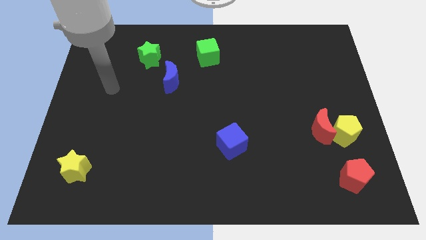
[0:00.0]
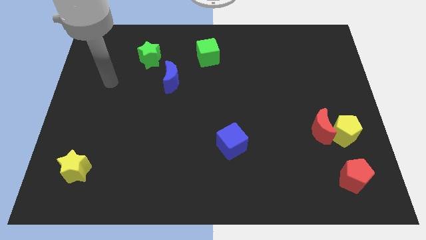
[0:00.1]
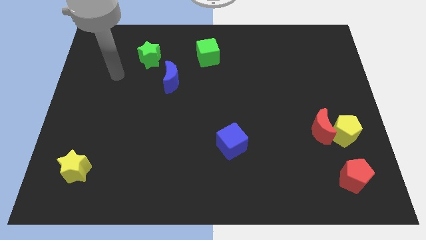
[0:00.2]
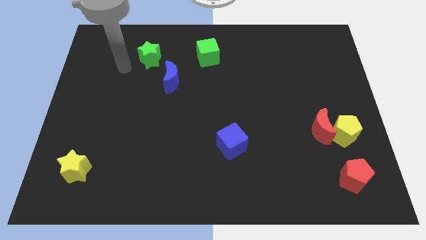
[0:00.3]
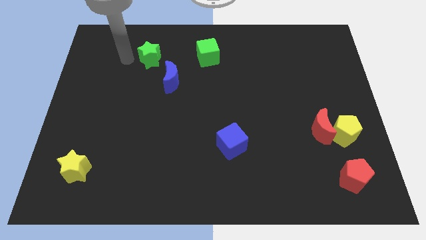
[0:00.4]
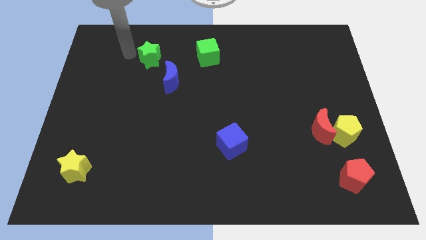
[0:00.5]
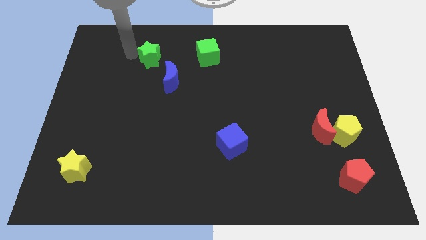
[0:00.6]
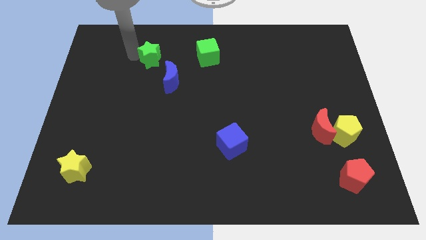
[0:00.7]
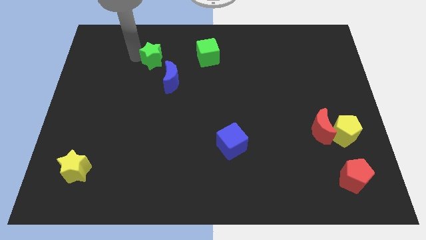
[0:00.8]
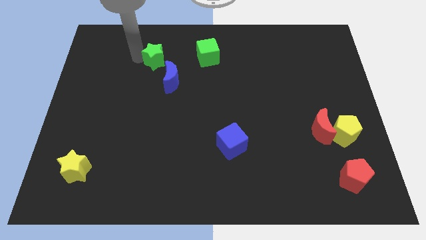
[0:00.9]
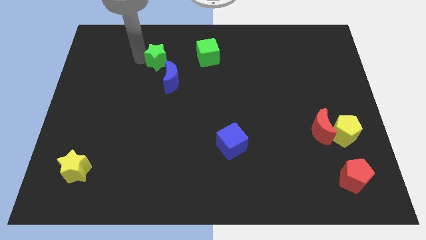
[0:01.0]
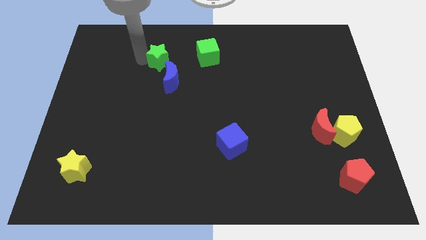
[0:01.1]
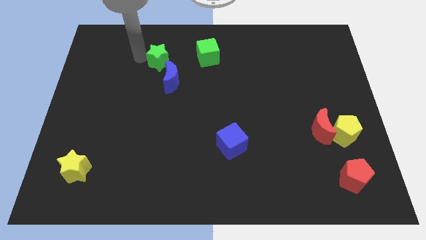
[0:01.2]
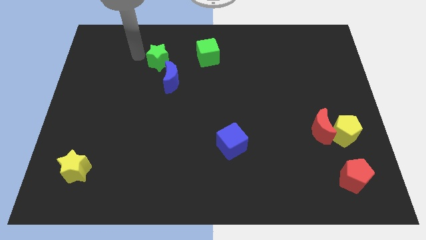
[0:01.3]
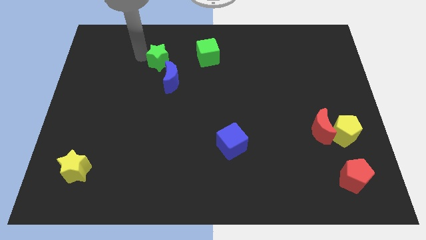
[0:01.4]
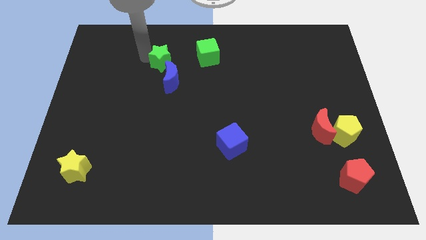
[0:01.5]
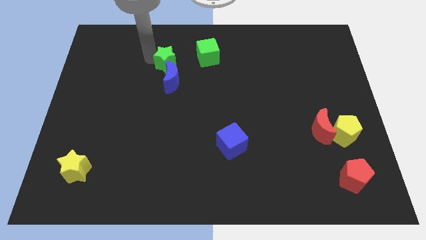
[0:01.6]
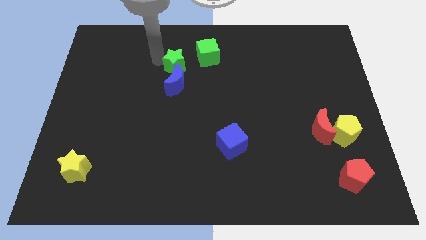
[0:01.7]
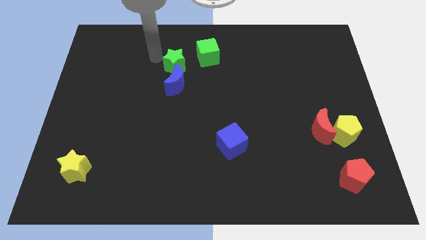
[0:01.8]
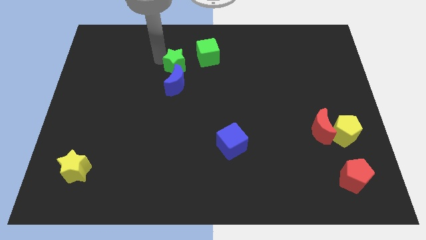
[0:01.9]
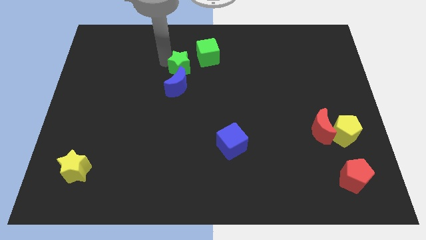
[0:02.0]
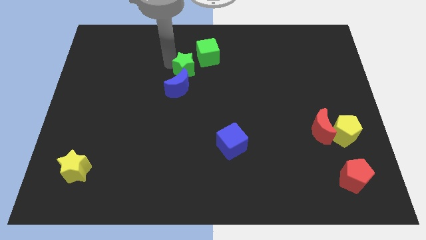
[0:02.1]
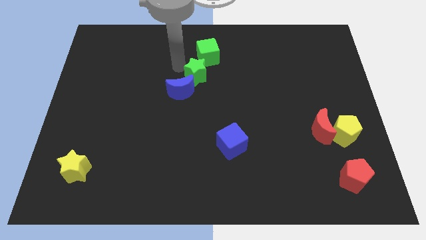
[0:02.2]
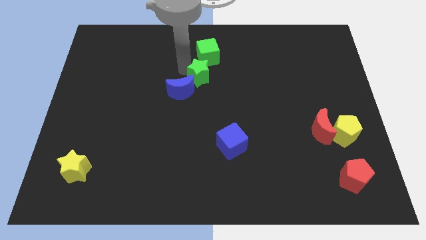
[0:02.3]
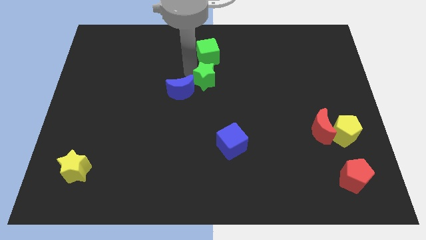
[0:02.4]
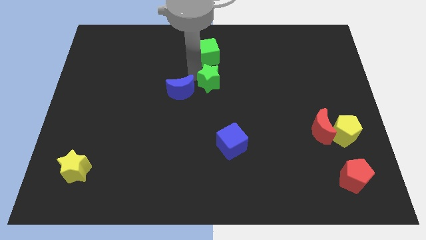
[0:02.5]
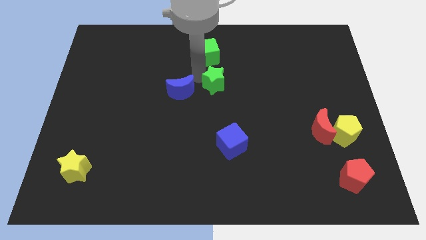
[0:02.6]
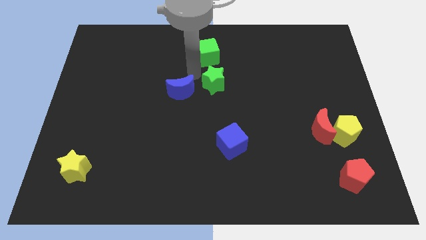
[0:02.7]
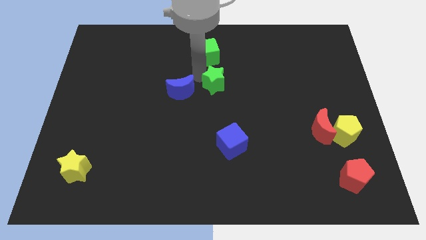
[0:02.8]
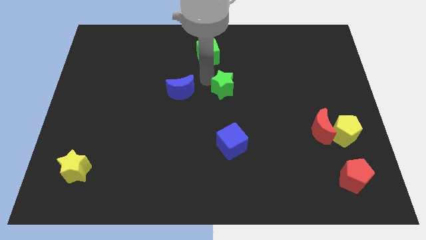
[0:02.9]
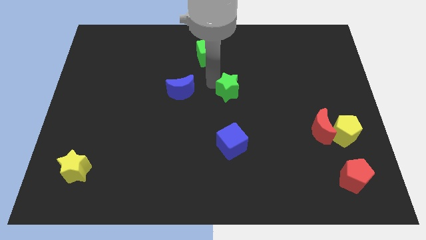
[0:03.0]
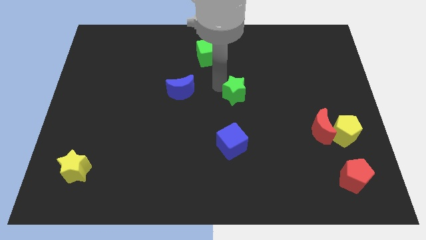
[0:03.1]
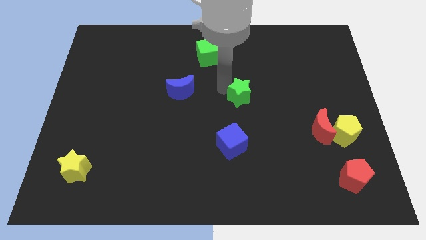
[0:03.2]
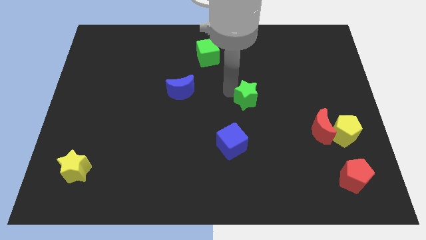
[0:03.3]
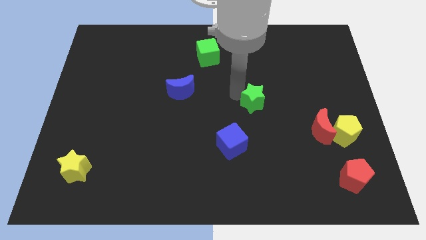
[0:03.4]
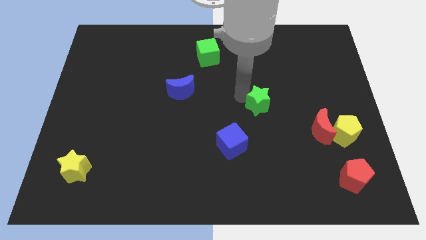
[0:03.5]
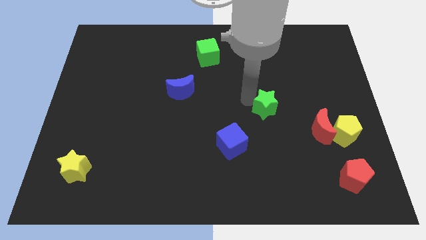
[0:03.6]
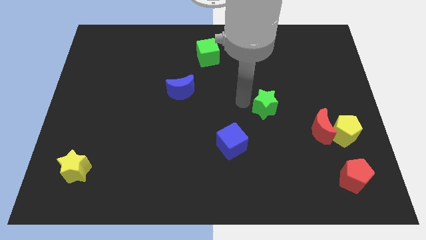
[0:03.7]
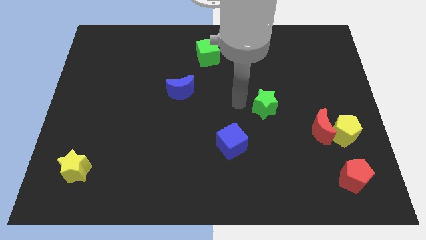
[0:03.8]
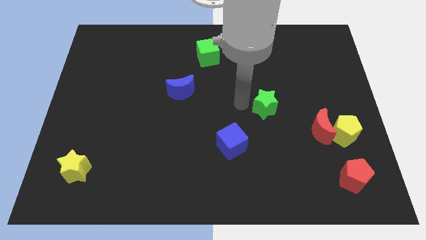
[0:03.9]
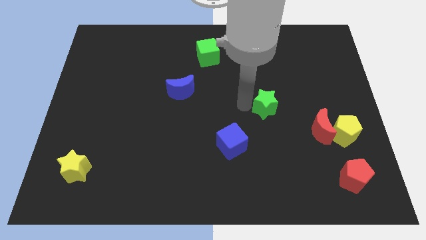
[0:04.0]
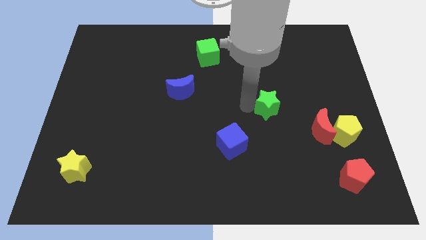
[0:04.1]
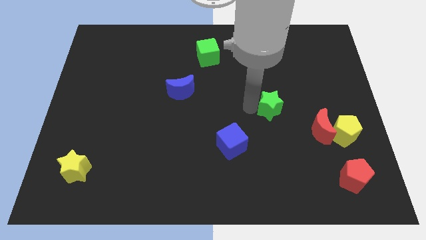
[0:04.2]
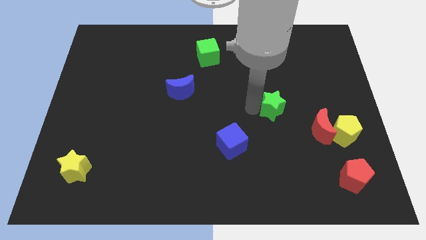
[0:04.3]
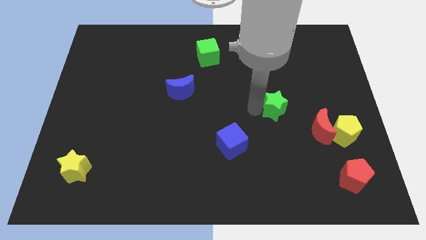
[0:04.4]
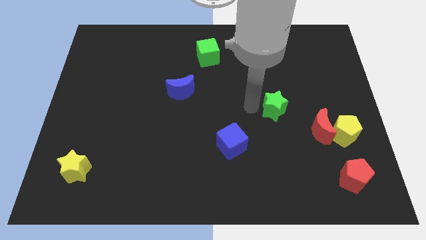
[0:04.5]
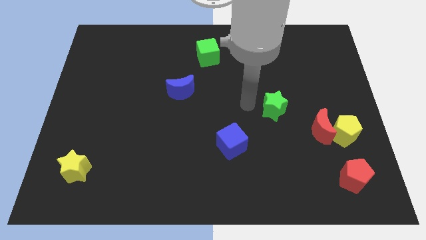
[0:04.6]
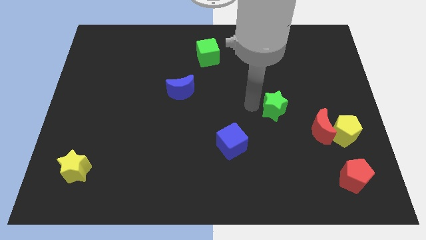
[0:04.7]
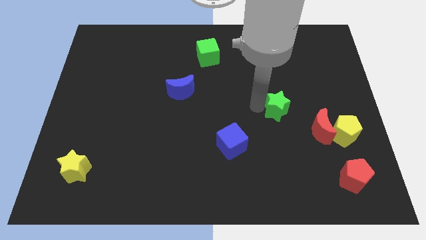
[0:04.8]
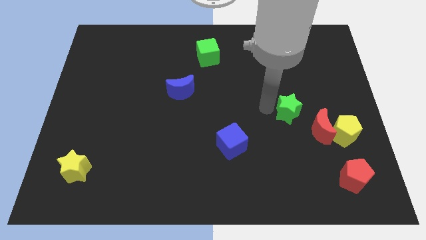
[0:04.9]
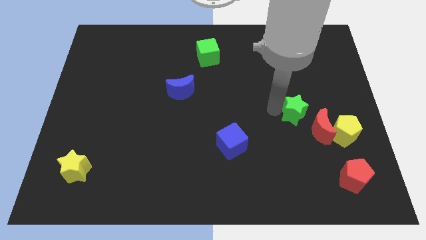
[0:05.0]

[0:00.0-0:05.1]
put the green star diagonally up and to the left of the yellow pentagon

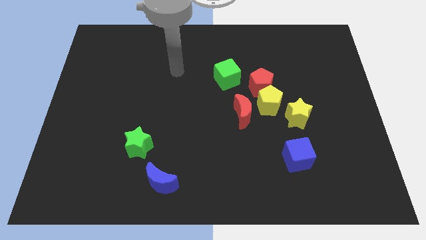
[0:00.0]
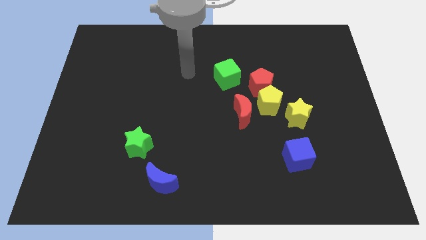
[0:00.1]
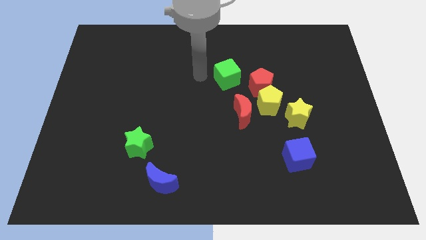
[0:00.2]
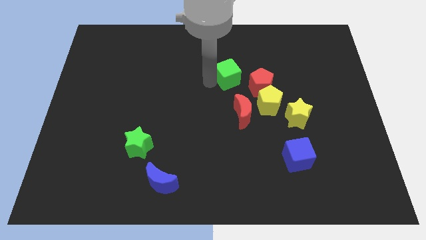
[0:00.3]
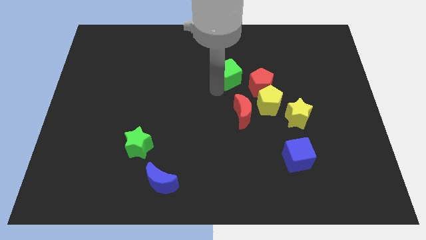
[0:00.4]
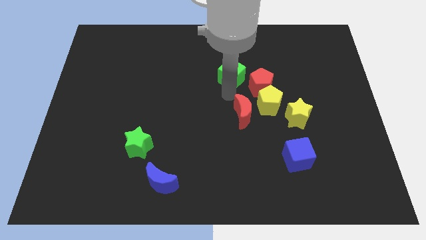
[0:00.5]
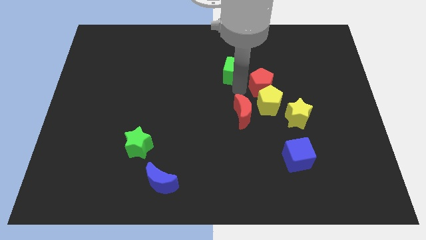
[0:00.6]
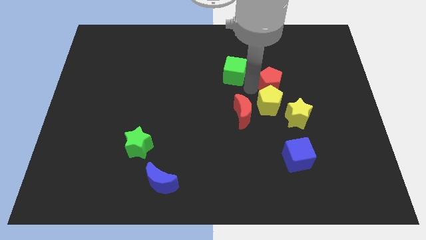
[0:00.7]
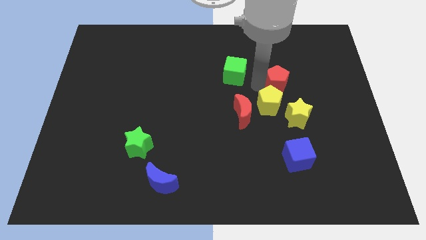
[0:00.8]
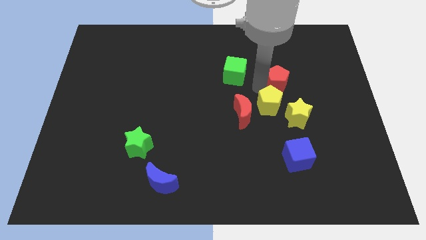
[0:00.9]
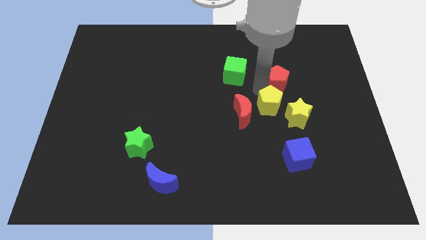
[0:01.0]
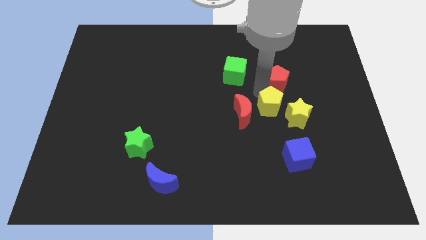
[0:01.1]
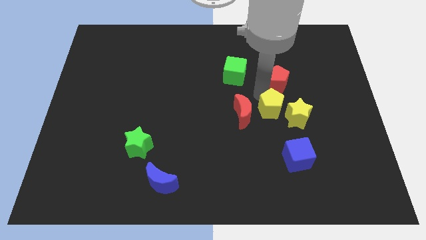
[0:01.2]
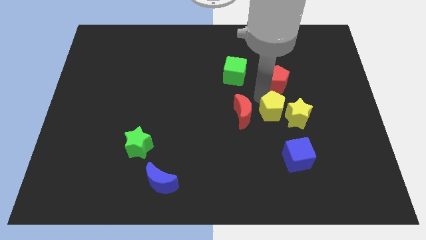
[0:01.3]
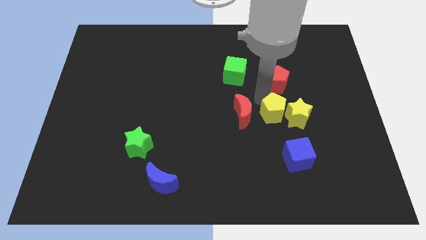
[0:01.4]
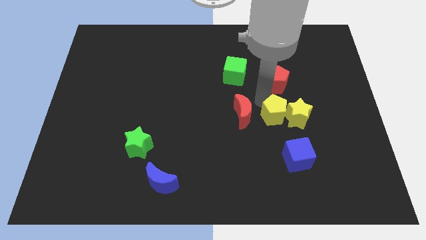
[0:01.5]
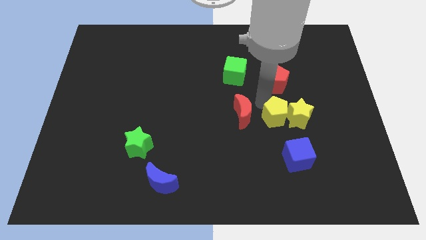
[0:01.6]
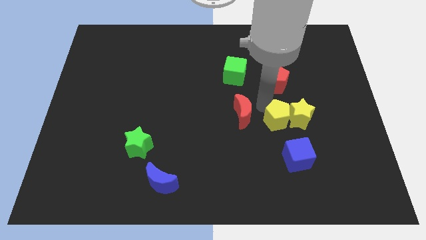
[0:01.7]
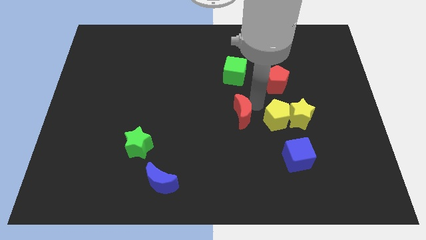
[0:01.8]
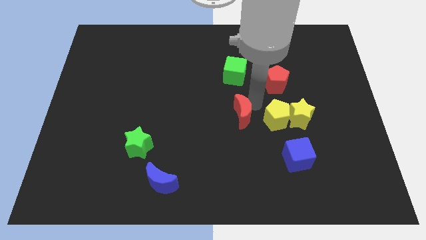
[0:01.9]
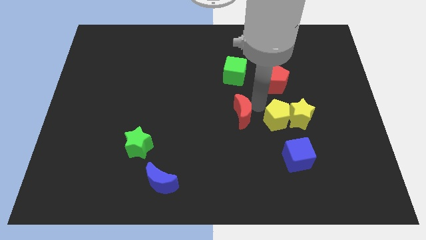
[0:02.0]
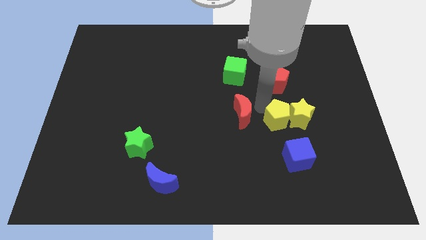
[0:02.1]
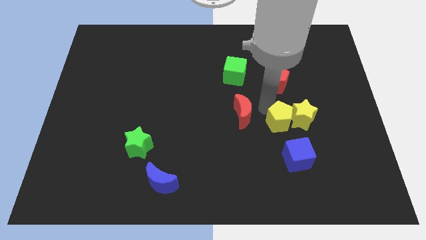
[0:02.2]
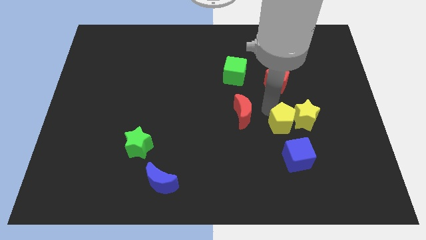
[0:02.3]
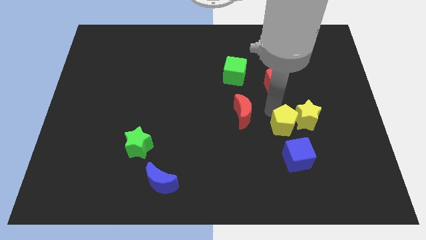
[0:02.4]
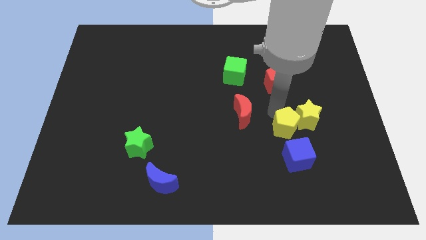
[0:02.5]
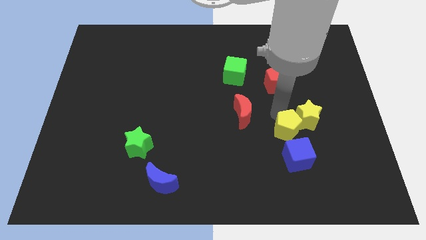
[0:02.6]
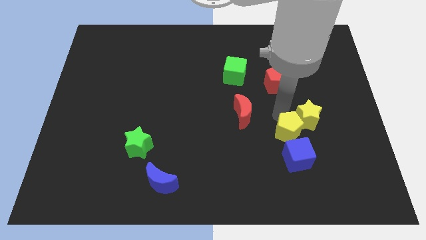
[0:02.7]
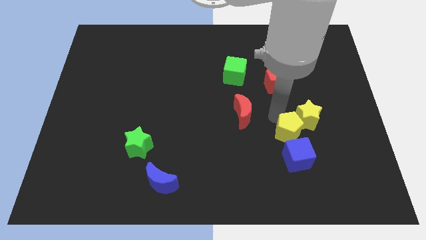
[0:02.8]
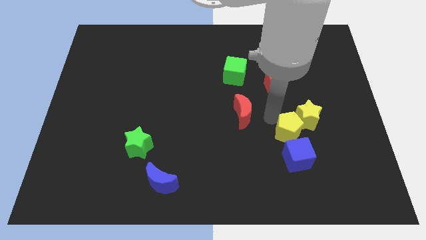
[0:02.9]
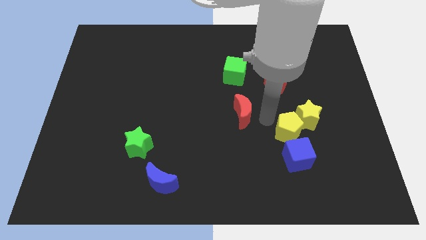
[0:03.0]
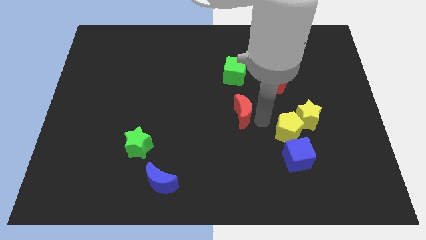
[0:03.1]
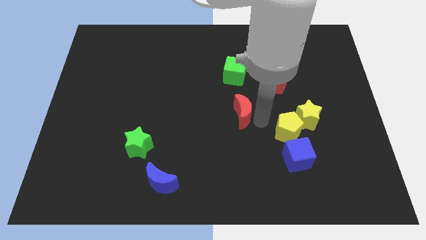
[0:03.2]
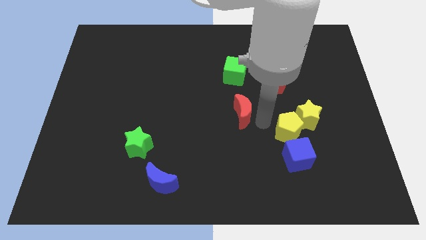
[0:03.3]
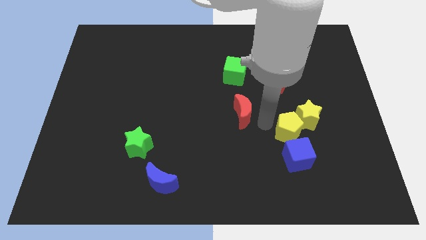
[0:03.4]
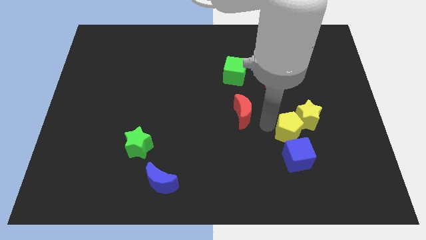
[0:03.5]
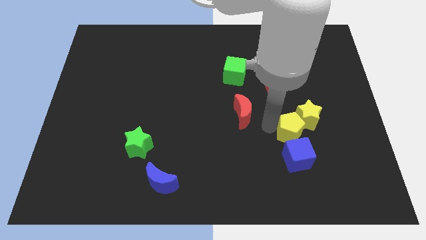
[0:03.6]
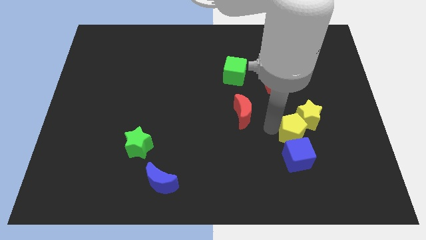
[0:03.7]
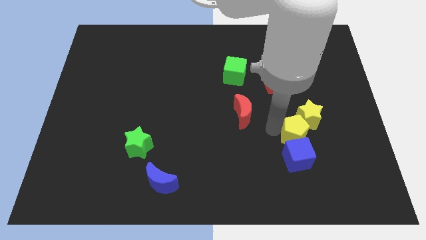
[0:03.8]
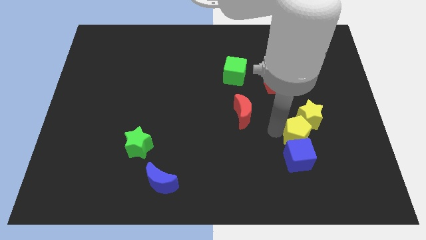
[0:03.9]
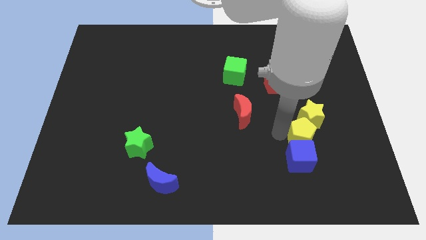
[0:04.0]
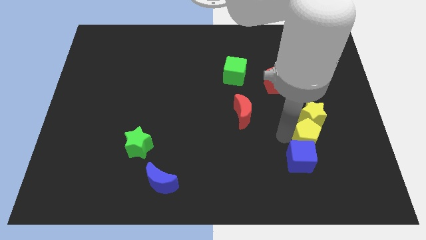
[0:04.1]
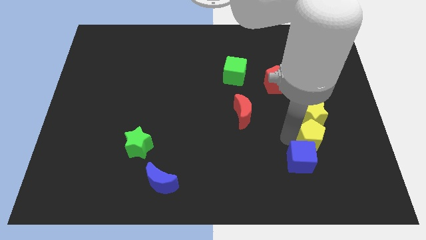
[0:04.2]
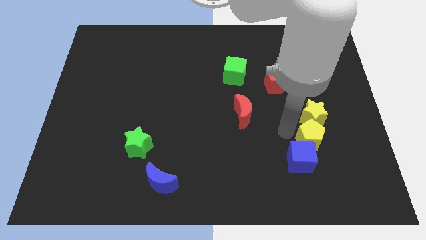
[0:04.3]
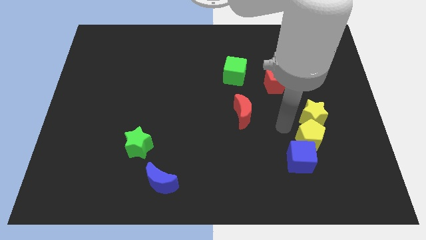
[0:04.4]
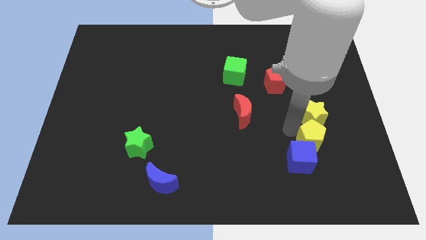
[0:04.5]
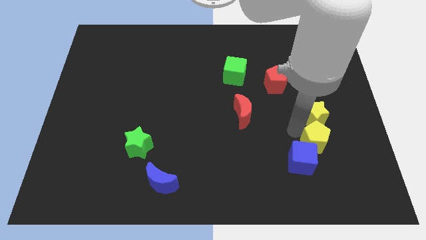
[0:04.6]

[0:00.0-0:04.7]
put the yellow pentagon right of the blue cube
